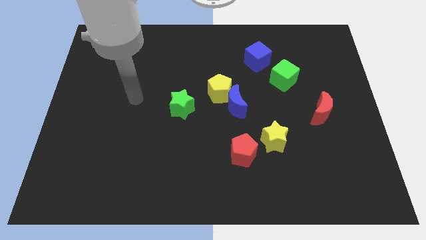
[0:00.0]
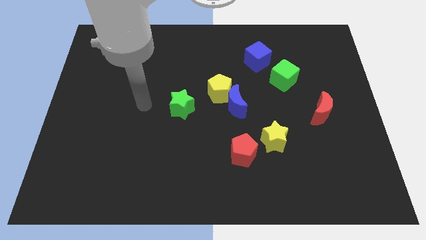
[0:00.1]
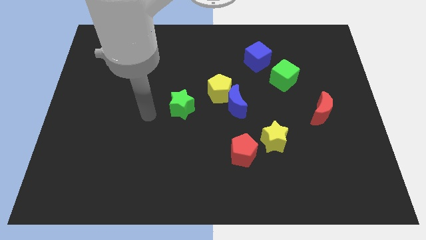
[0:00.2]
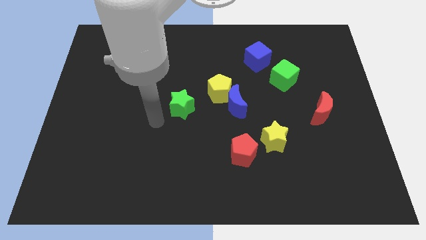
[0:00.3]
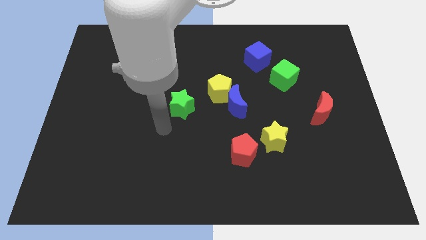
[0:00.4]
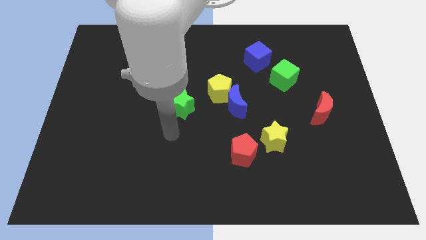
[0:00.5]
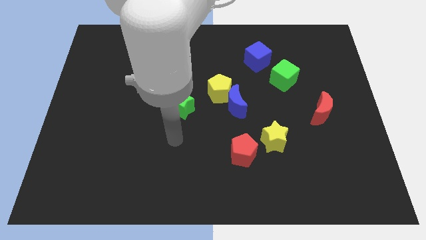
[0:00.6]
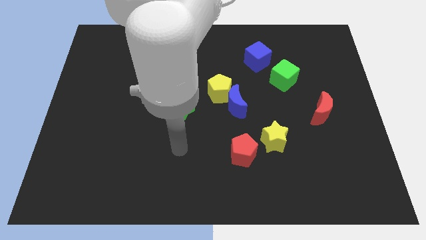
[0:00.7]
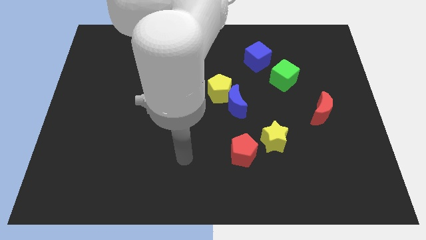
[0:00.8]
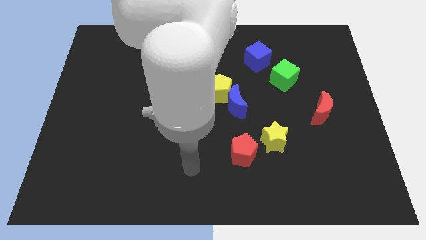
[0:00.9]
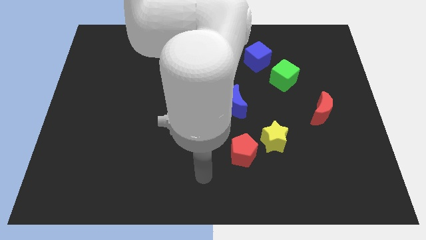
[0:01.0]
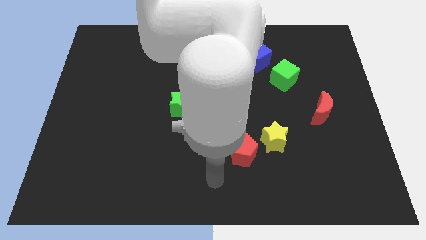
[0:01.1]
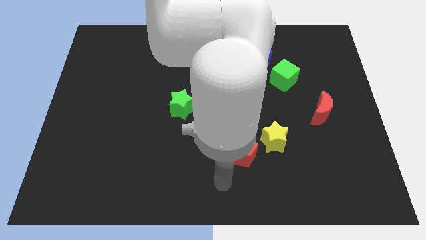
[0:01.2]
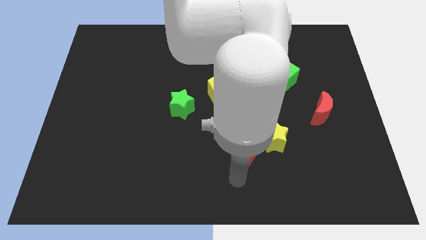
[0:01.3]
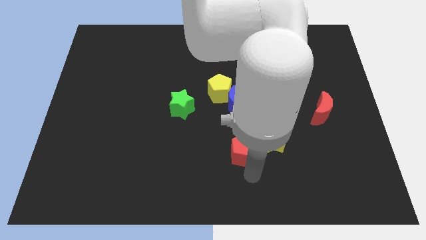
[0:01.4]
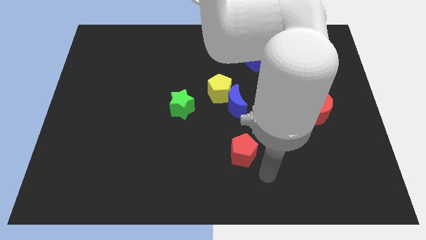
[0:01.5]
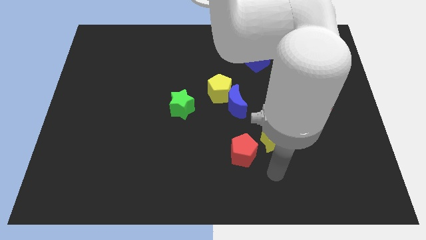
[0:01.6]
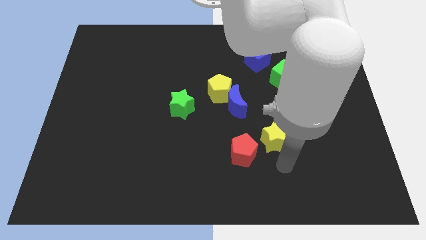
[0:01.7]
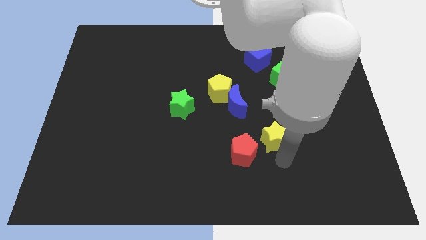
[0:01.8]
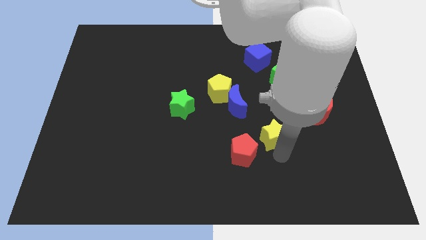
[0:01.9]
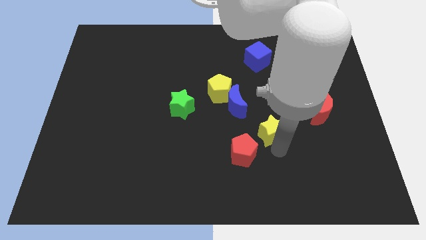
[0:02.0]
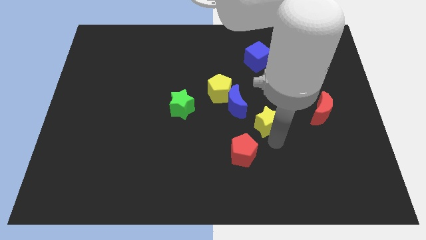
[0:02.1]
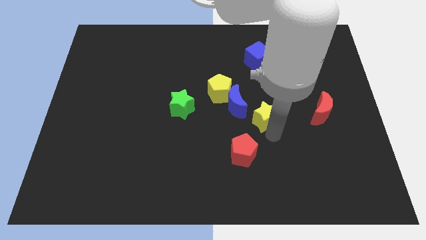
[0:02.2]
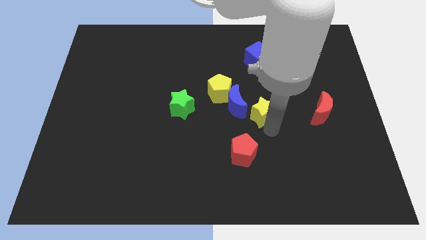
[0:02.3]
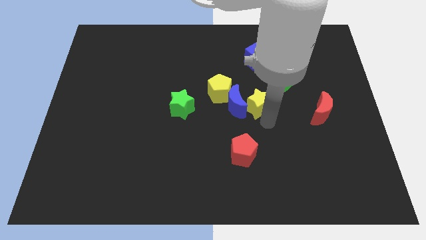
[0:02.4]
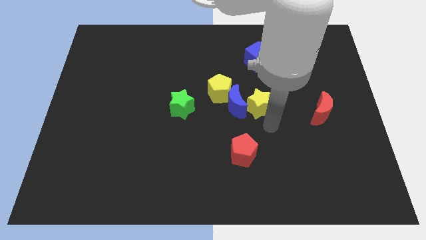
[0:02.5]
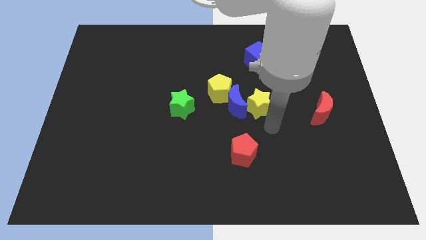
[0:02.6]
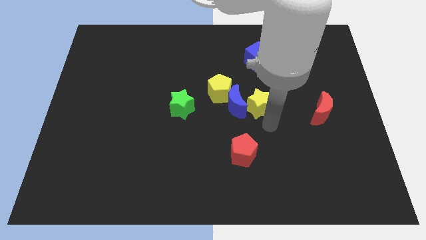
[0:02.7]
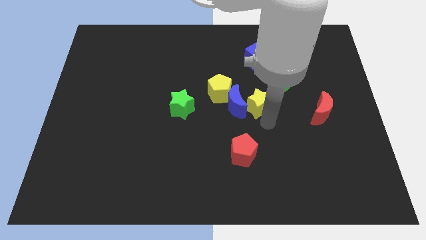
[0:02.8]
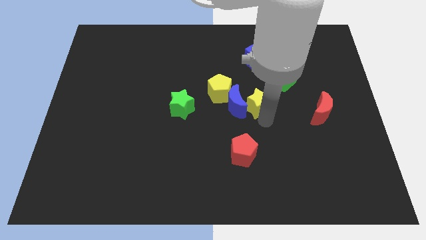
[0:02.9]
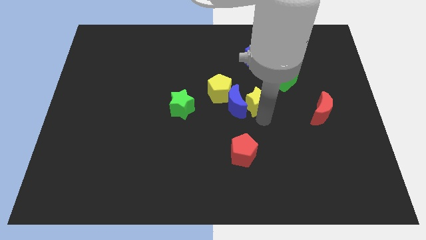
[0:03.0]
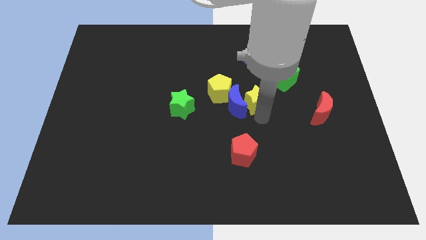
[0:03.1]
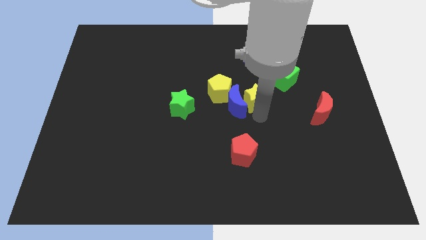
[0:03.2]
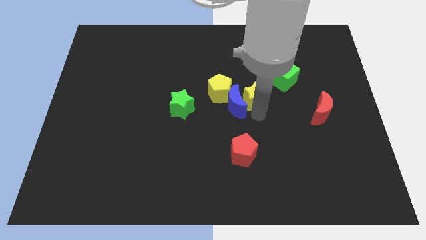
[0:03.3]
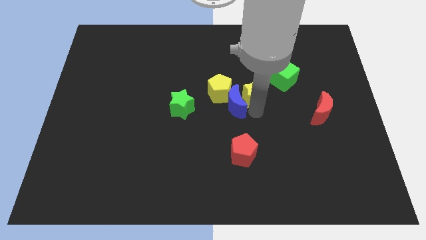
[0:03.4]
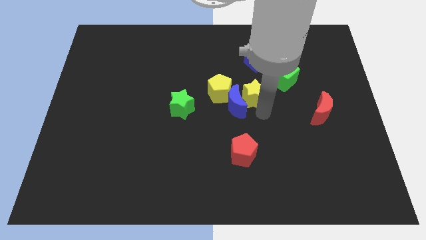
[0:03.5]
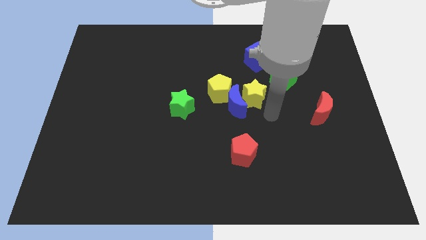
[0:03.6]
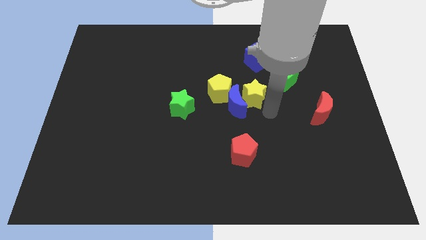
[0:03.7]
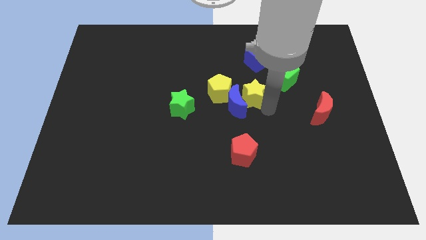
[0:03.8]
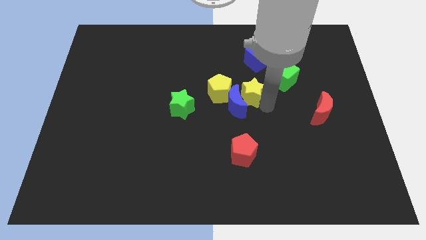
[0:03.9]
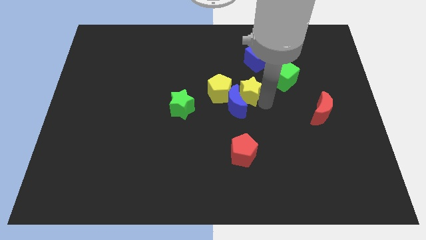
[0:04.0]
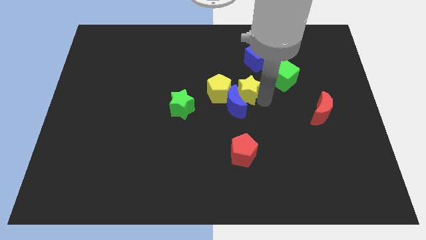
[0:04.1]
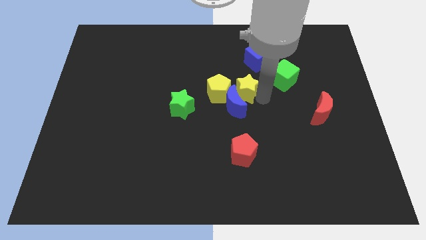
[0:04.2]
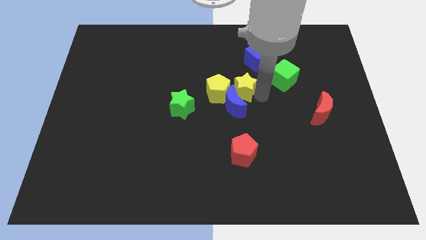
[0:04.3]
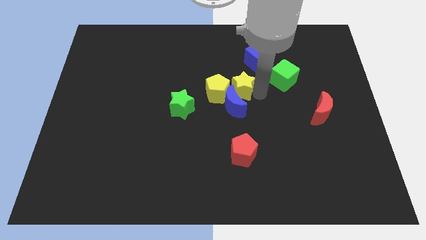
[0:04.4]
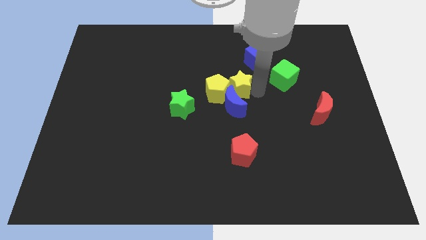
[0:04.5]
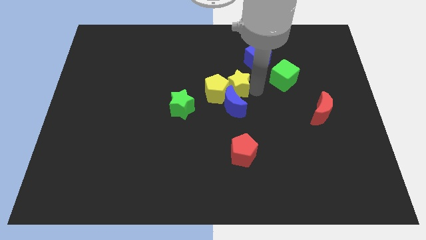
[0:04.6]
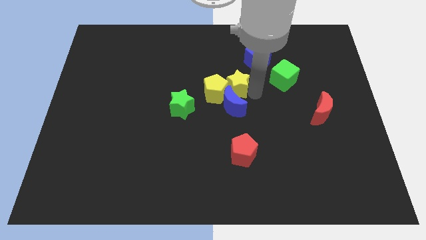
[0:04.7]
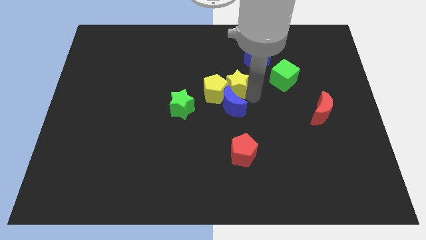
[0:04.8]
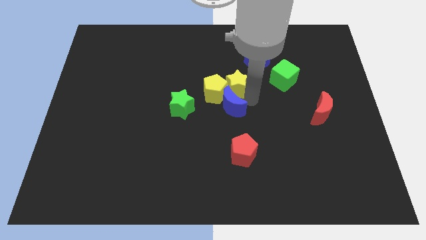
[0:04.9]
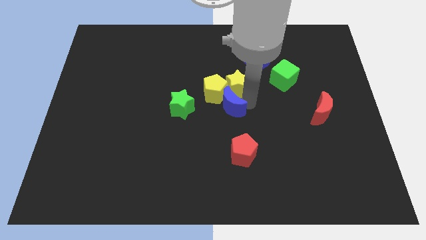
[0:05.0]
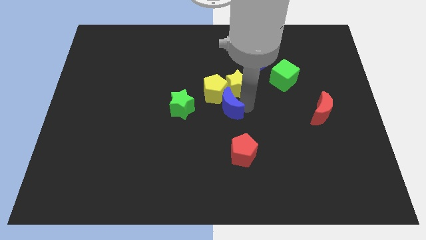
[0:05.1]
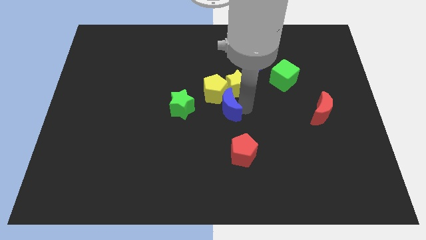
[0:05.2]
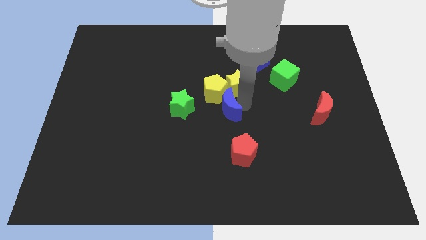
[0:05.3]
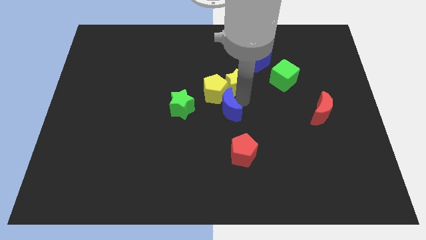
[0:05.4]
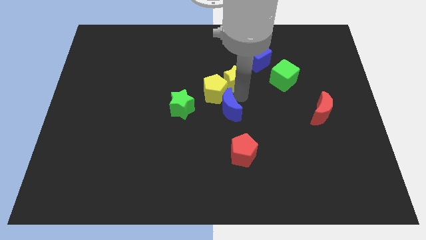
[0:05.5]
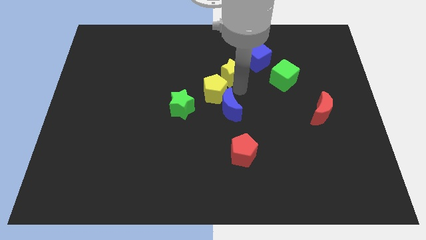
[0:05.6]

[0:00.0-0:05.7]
move the yellow star to the top of the yellow pentagon

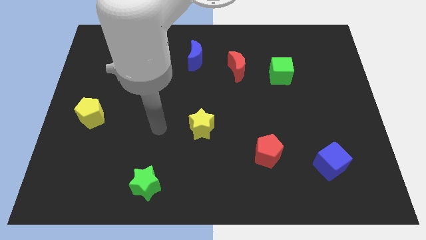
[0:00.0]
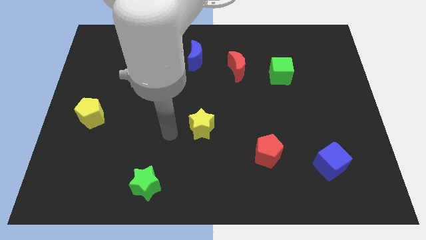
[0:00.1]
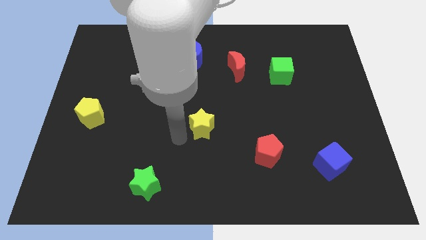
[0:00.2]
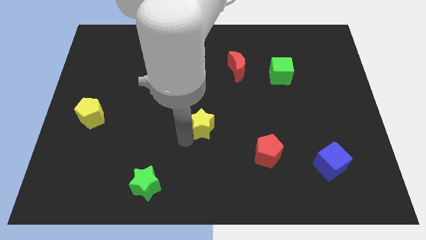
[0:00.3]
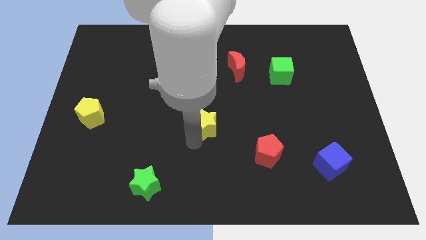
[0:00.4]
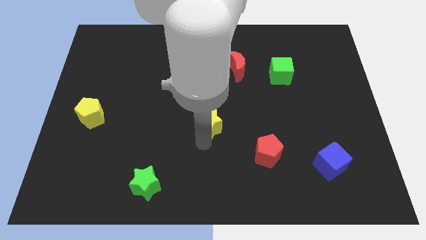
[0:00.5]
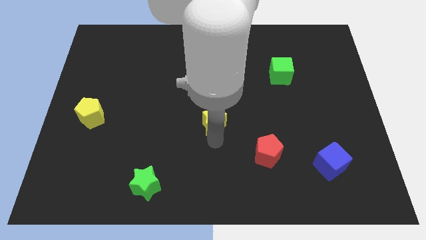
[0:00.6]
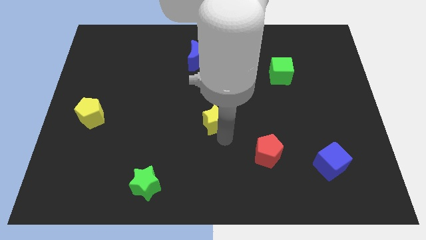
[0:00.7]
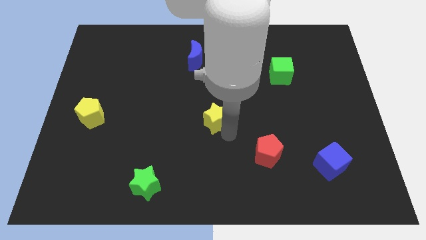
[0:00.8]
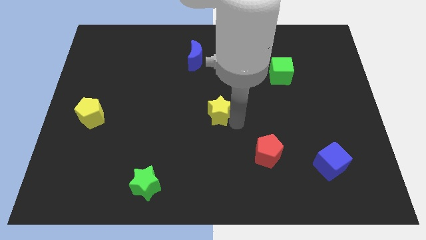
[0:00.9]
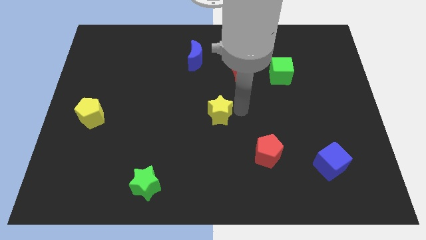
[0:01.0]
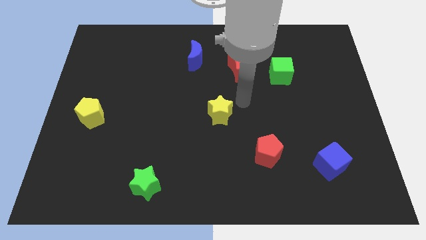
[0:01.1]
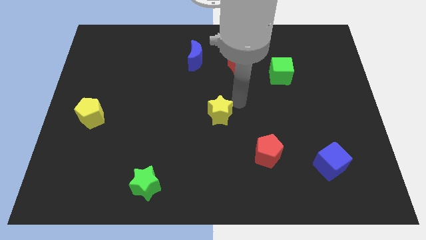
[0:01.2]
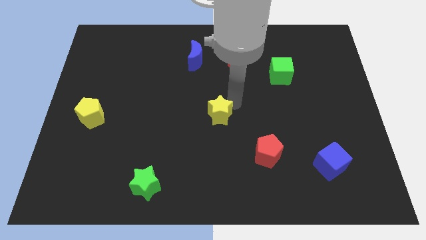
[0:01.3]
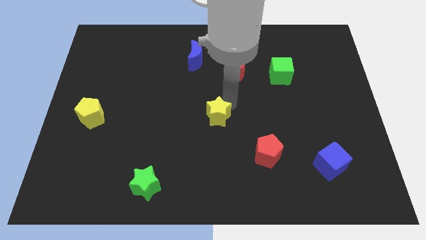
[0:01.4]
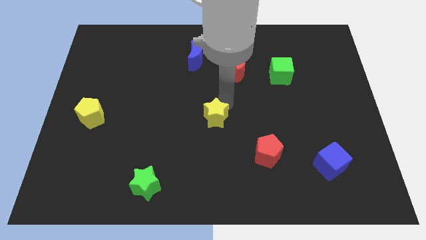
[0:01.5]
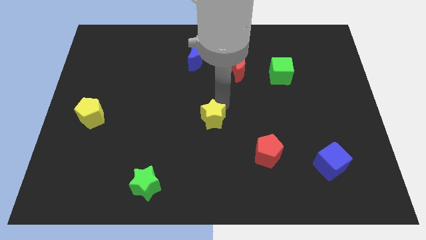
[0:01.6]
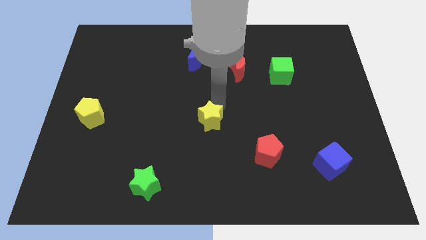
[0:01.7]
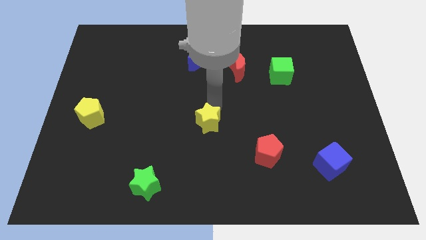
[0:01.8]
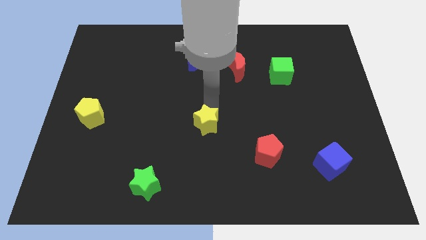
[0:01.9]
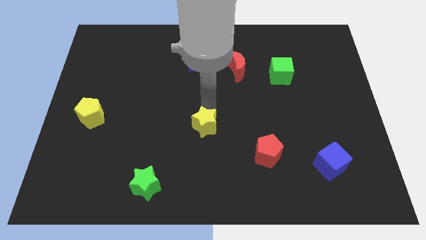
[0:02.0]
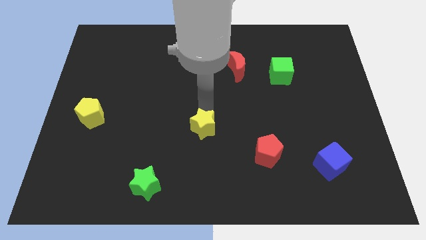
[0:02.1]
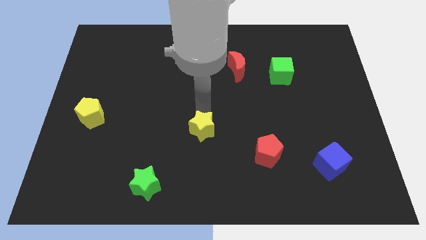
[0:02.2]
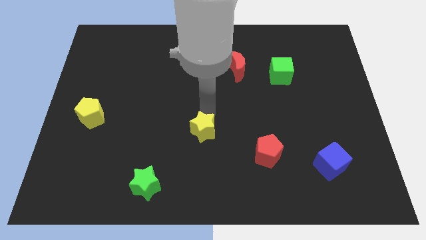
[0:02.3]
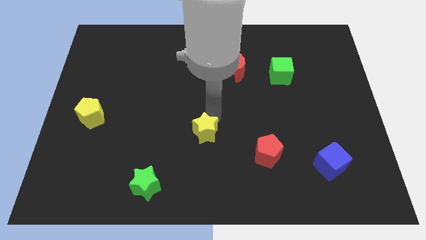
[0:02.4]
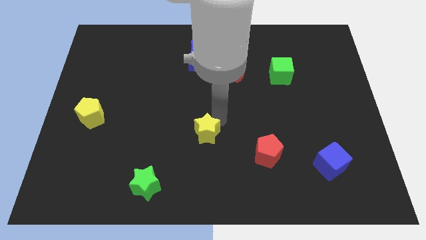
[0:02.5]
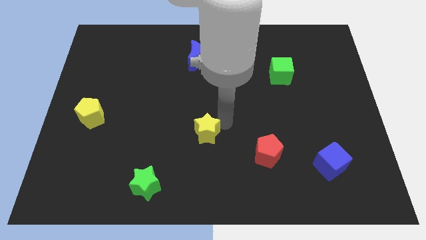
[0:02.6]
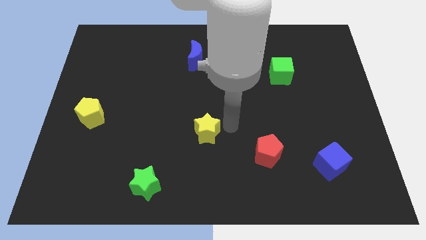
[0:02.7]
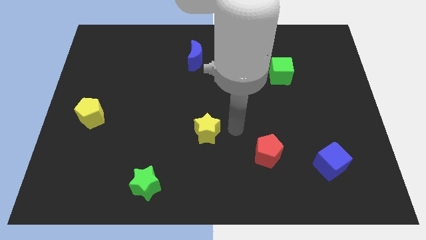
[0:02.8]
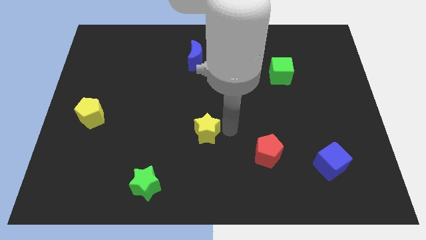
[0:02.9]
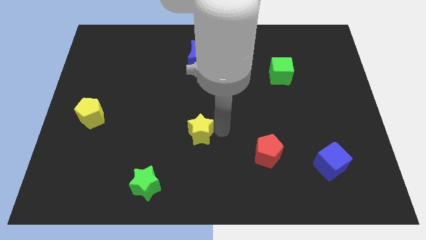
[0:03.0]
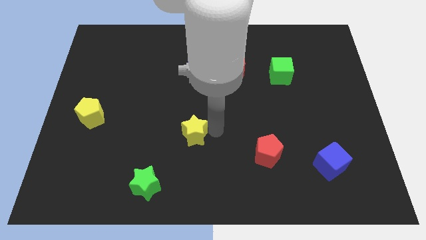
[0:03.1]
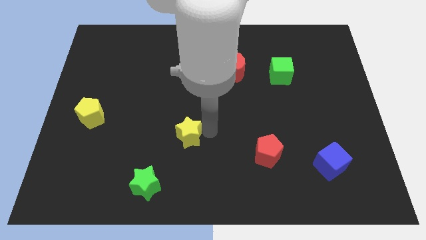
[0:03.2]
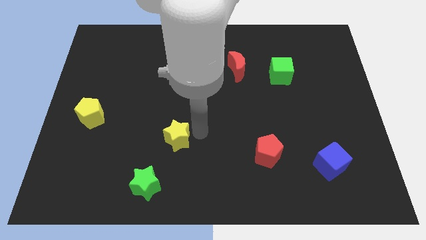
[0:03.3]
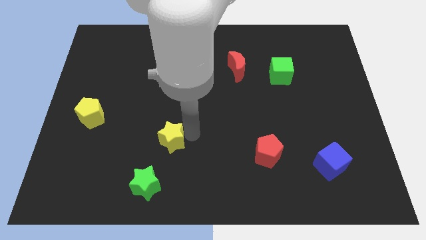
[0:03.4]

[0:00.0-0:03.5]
push the yellow star to the top side of the green star
